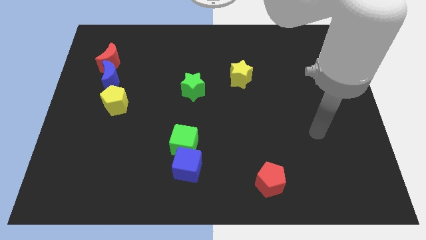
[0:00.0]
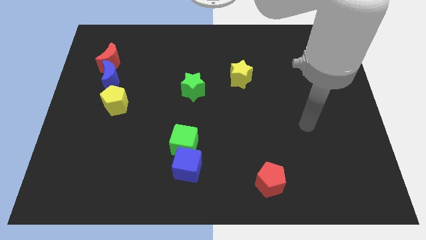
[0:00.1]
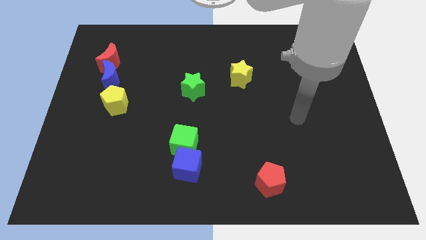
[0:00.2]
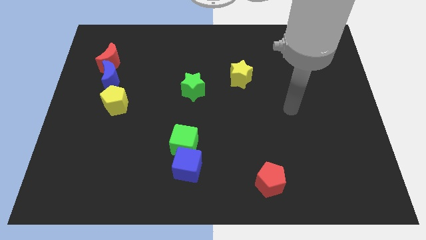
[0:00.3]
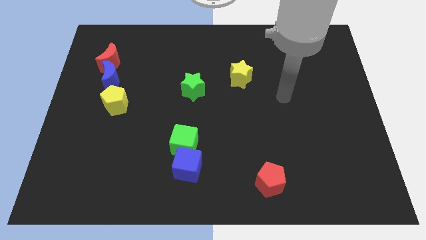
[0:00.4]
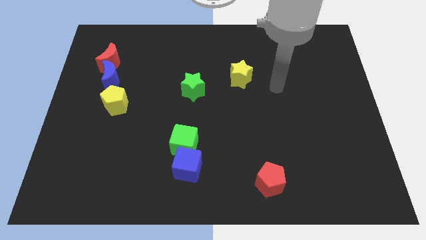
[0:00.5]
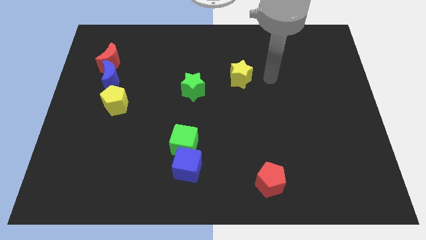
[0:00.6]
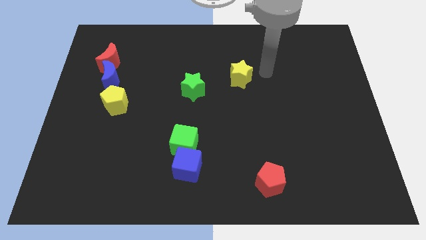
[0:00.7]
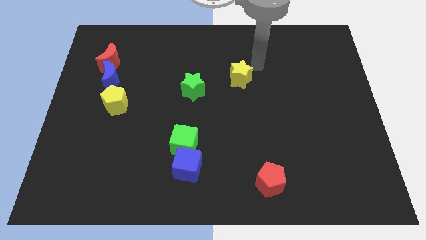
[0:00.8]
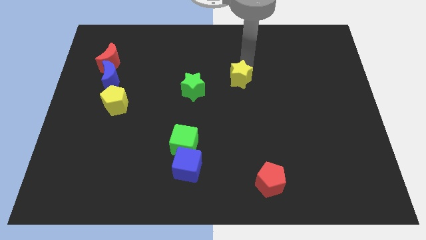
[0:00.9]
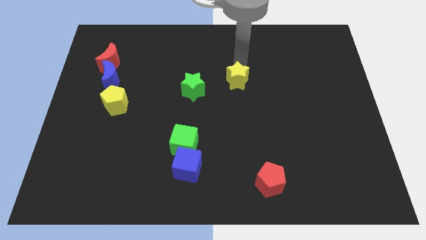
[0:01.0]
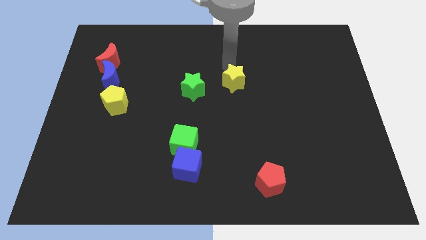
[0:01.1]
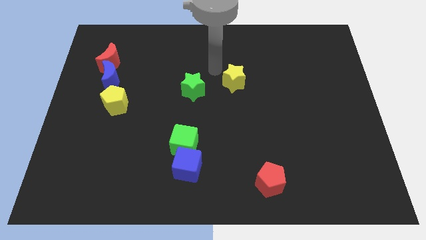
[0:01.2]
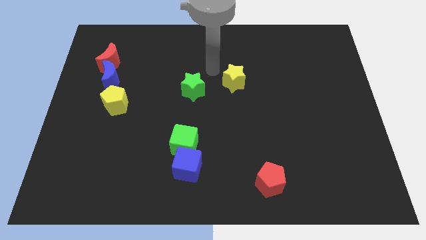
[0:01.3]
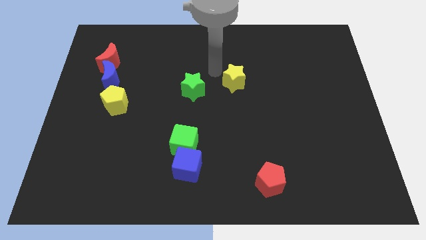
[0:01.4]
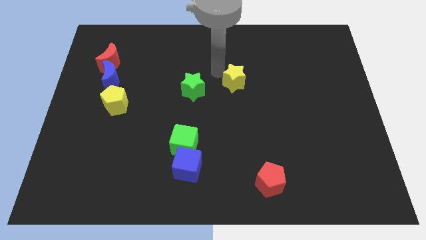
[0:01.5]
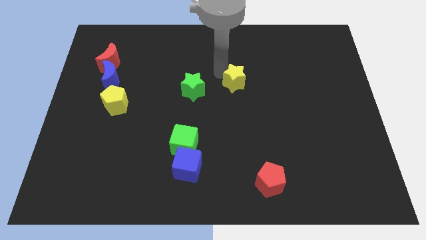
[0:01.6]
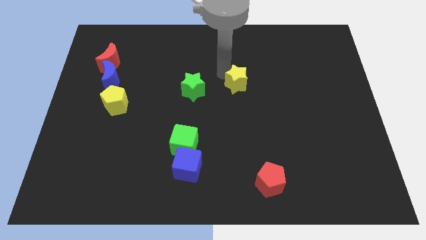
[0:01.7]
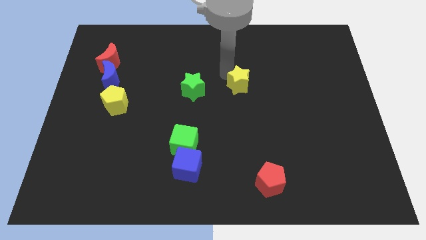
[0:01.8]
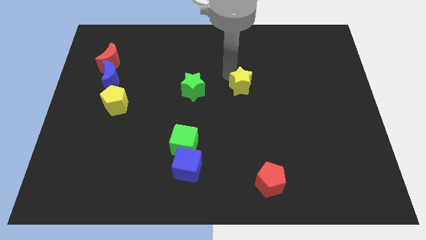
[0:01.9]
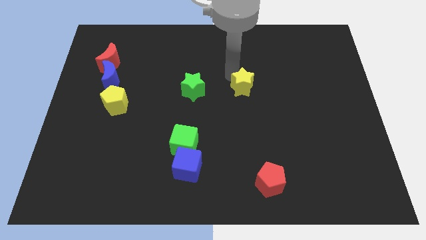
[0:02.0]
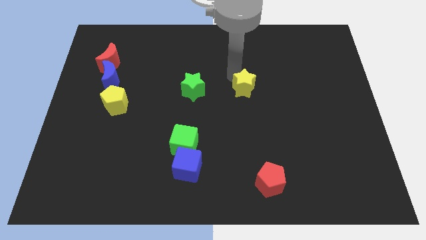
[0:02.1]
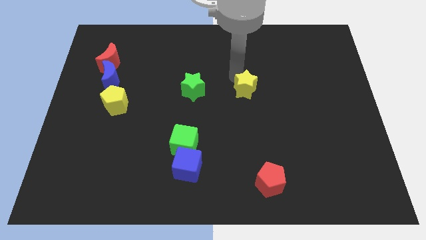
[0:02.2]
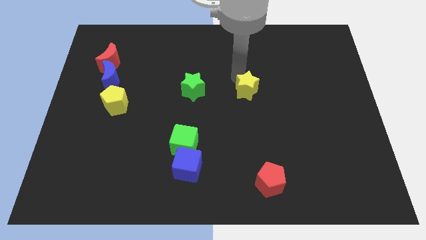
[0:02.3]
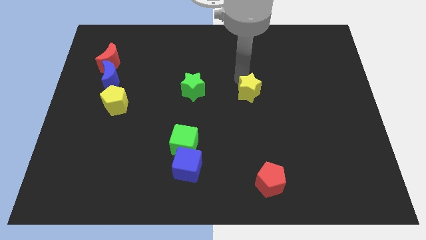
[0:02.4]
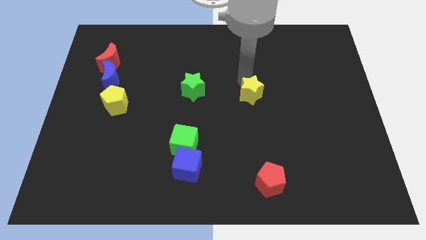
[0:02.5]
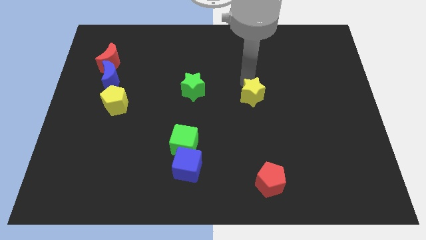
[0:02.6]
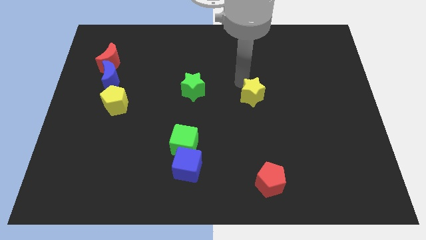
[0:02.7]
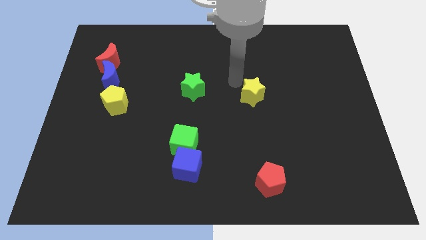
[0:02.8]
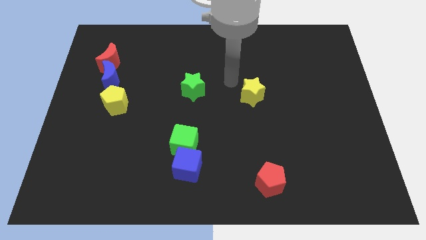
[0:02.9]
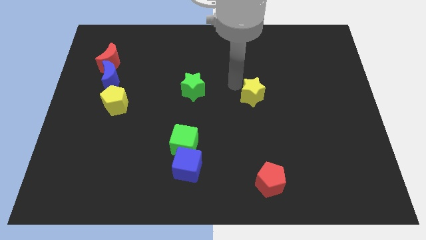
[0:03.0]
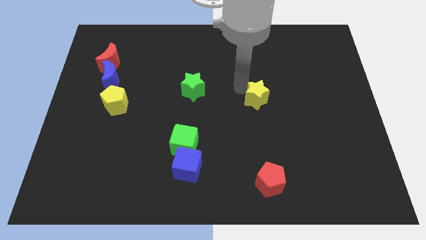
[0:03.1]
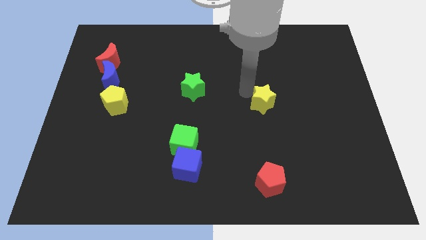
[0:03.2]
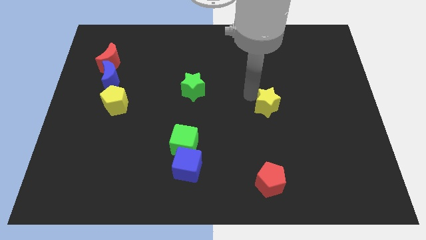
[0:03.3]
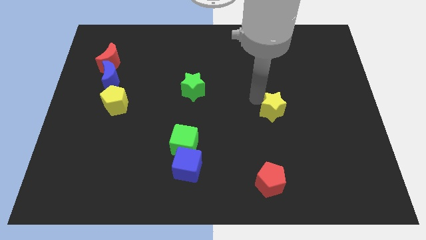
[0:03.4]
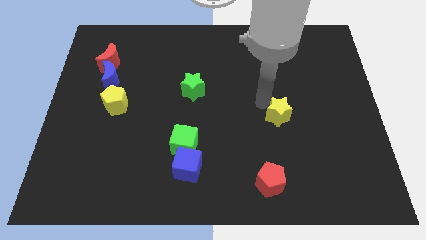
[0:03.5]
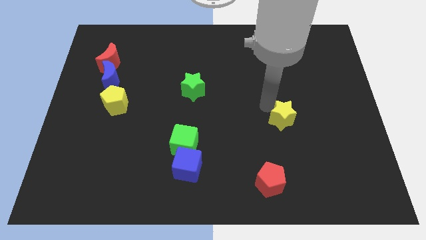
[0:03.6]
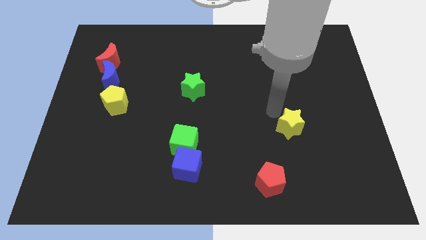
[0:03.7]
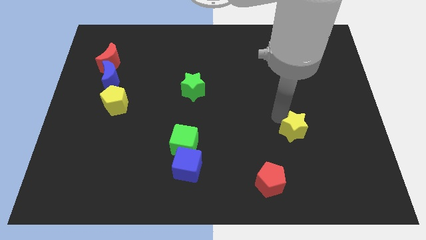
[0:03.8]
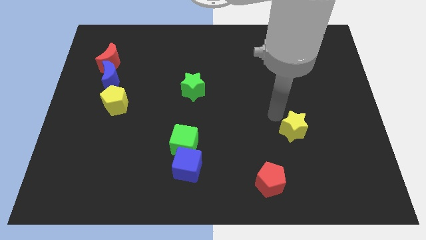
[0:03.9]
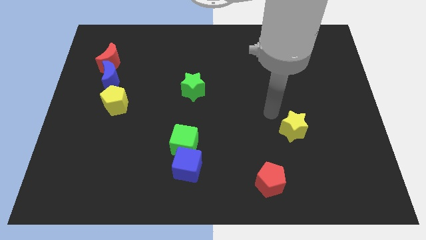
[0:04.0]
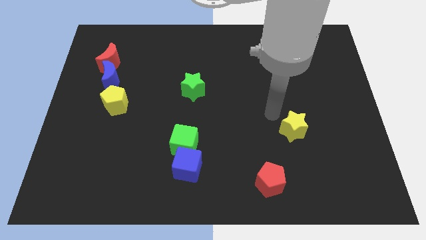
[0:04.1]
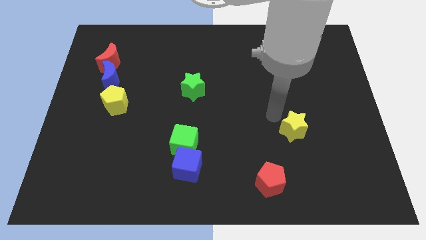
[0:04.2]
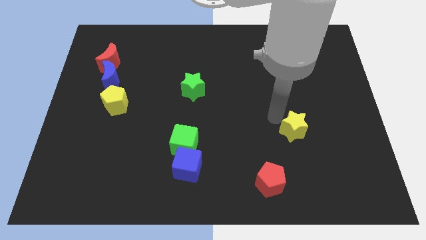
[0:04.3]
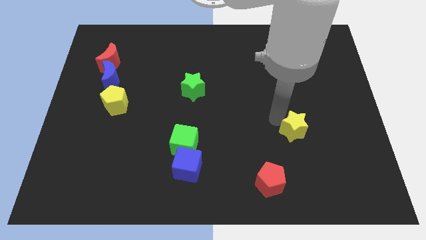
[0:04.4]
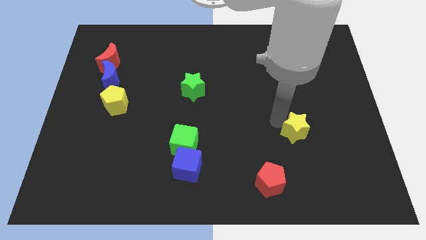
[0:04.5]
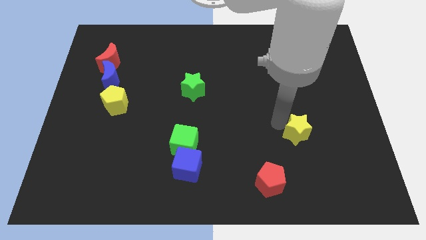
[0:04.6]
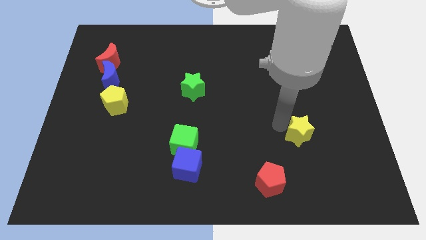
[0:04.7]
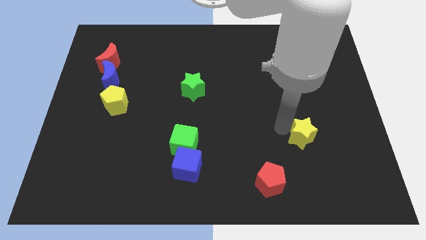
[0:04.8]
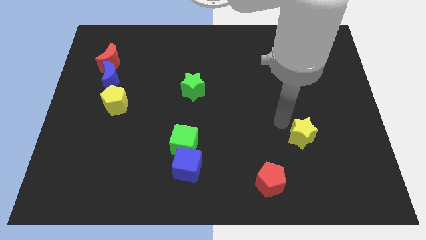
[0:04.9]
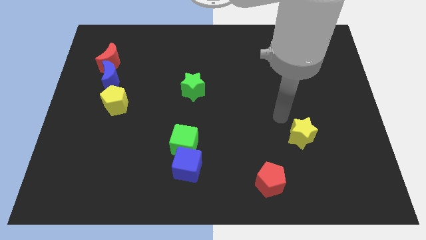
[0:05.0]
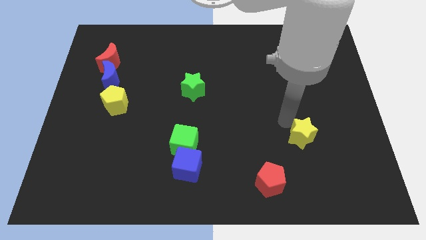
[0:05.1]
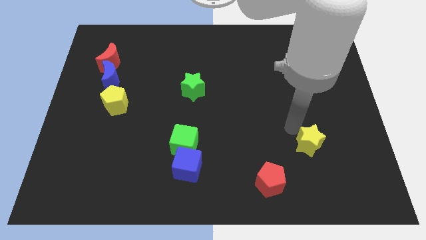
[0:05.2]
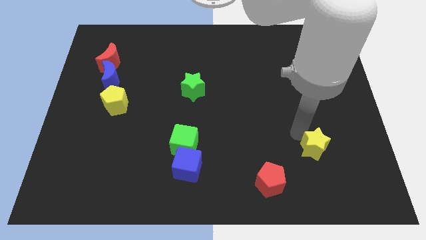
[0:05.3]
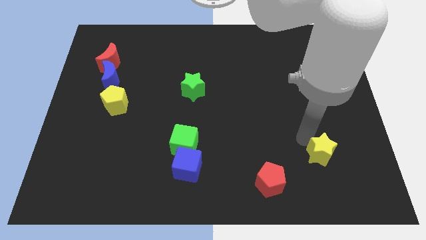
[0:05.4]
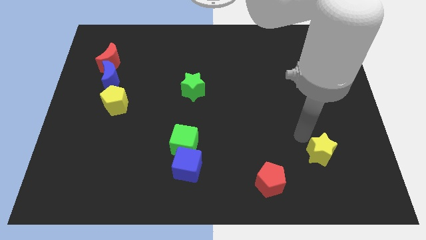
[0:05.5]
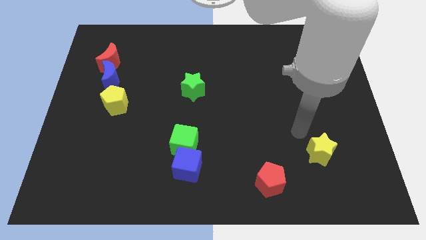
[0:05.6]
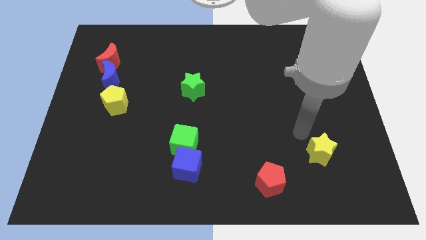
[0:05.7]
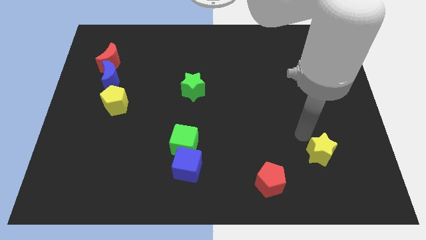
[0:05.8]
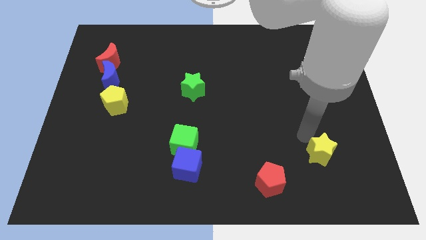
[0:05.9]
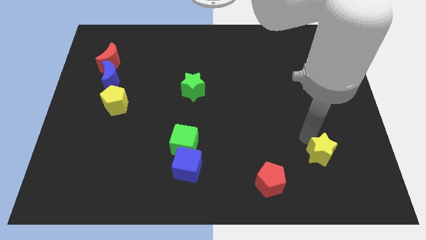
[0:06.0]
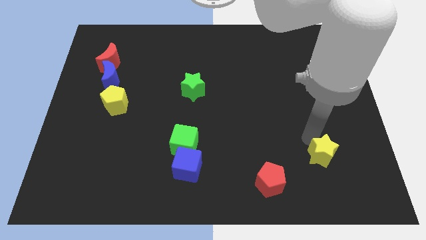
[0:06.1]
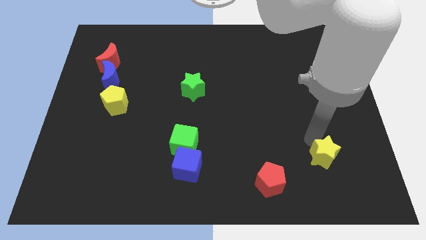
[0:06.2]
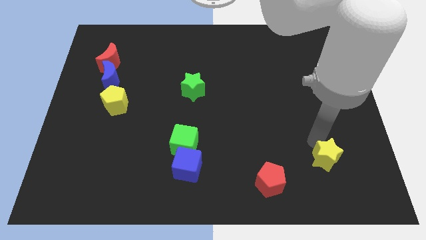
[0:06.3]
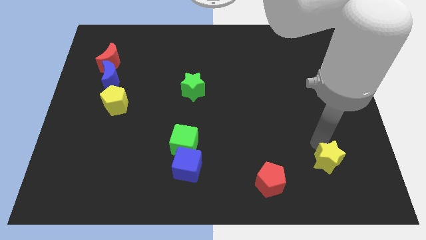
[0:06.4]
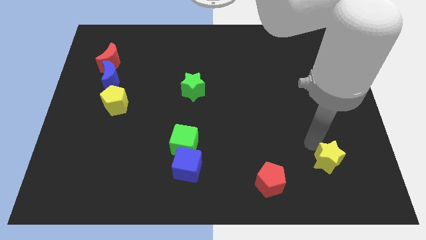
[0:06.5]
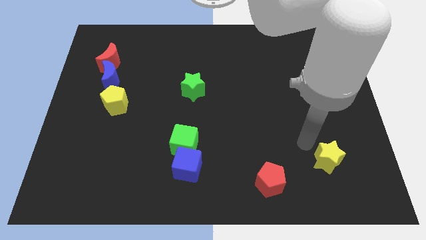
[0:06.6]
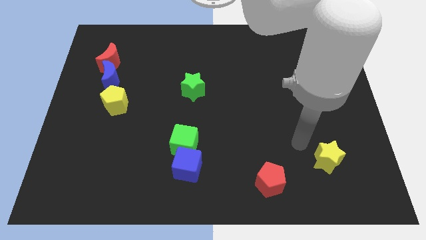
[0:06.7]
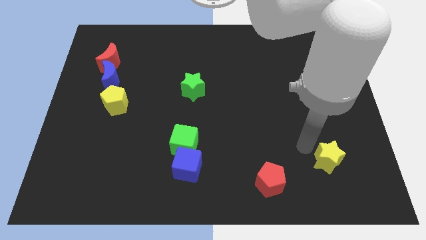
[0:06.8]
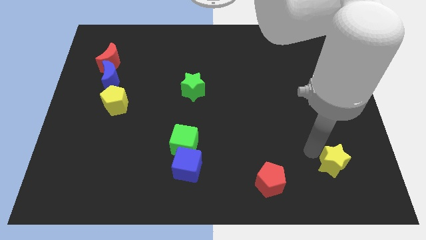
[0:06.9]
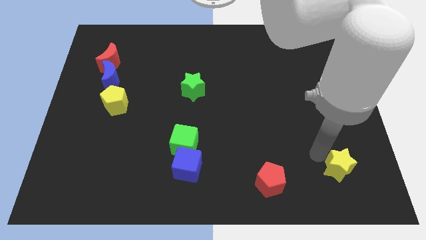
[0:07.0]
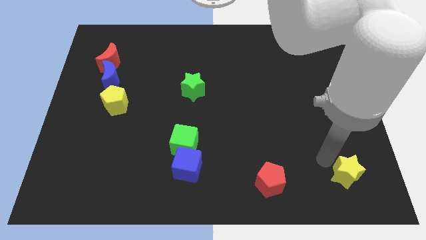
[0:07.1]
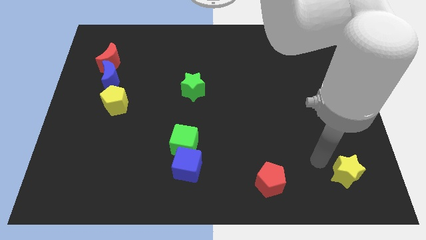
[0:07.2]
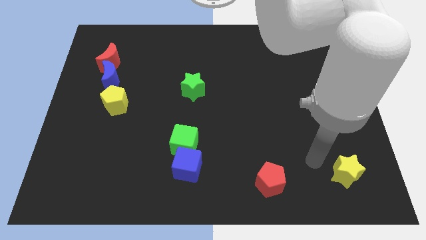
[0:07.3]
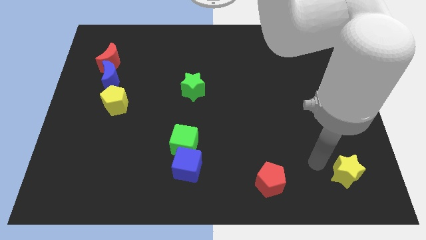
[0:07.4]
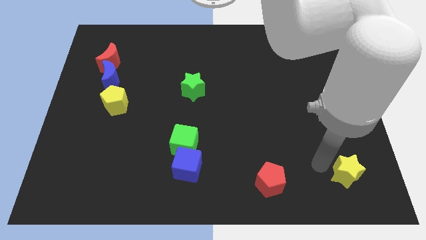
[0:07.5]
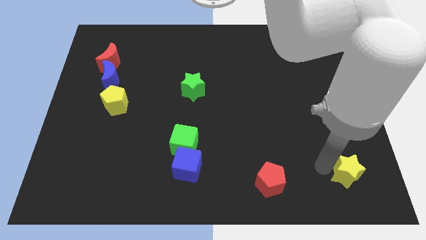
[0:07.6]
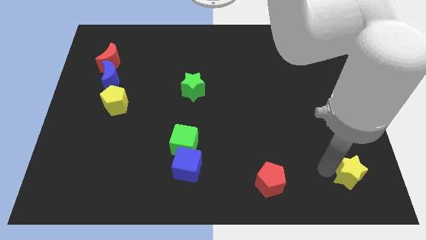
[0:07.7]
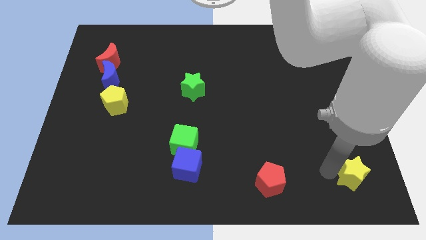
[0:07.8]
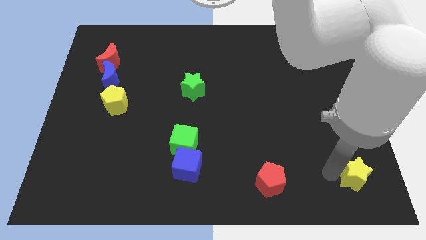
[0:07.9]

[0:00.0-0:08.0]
move the yellow star to the bottom right of the board
